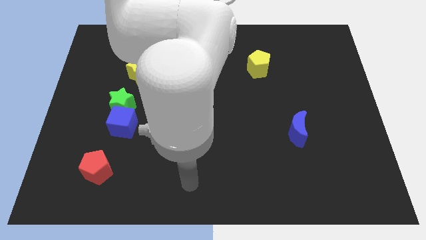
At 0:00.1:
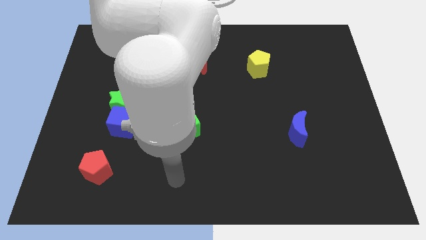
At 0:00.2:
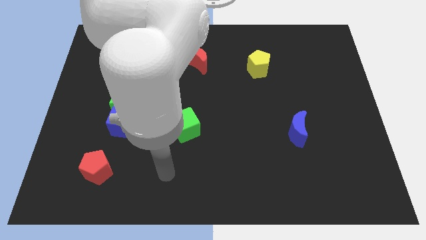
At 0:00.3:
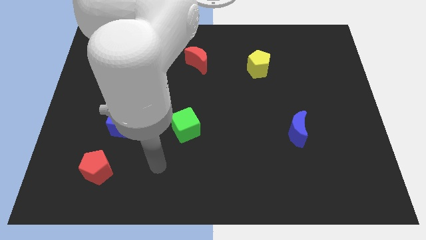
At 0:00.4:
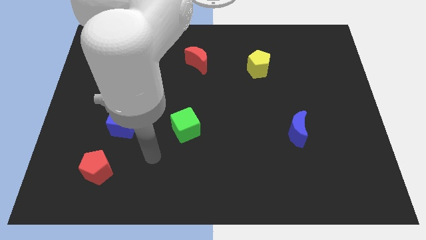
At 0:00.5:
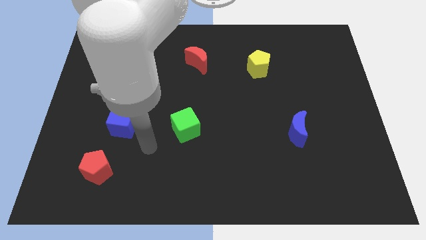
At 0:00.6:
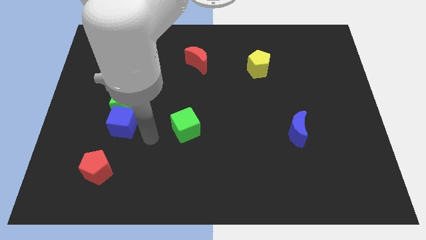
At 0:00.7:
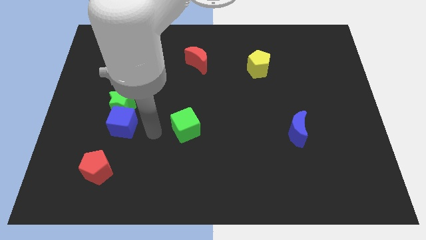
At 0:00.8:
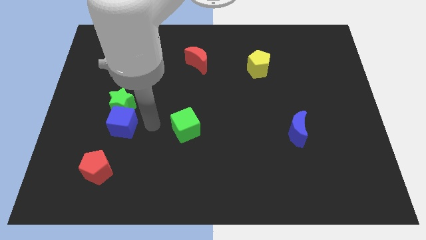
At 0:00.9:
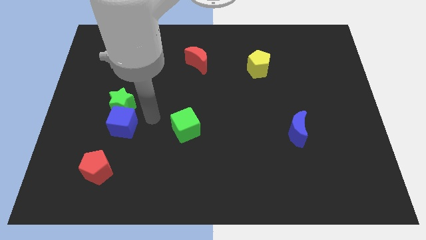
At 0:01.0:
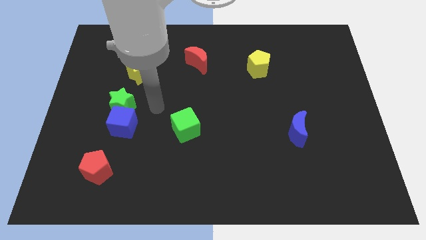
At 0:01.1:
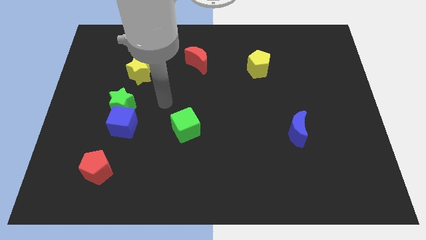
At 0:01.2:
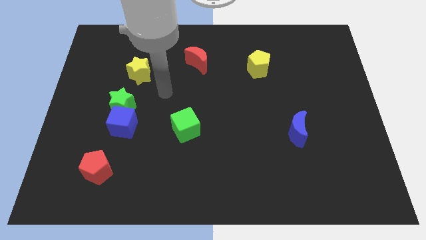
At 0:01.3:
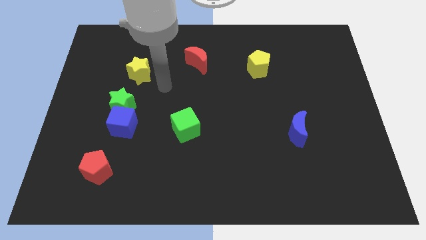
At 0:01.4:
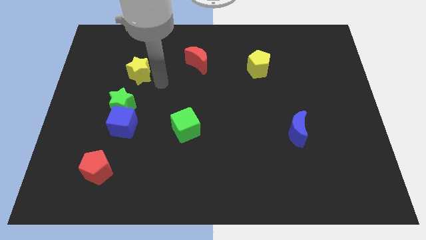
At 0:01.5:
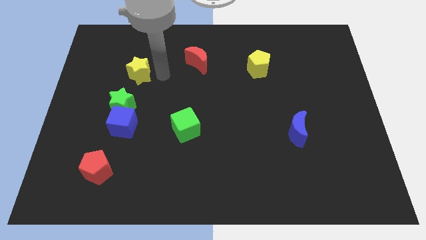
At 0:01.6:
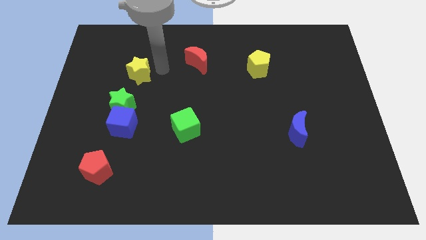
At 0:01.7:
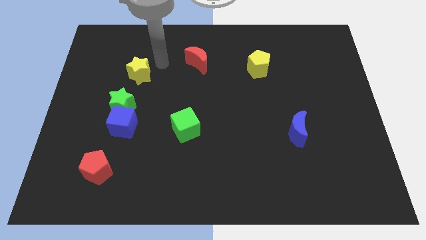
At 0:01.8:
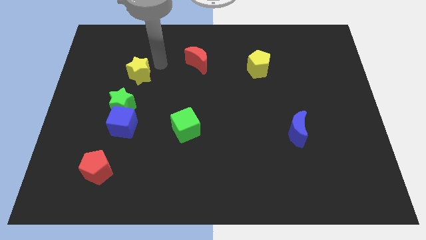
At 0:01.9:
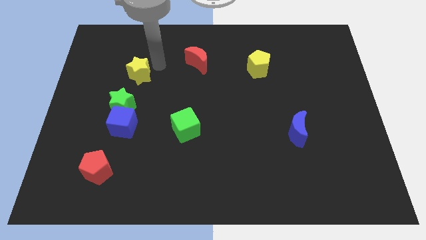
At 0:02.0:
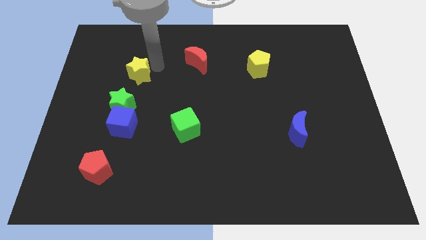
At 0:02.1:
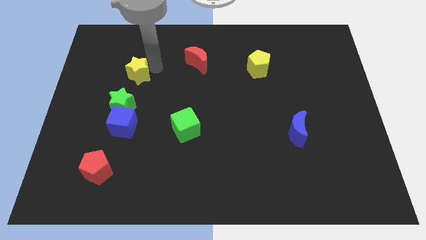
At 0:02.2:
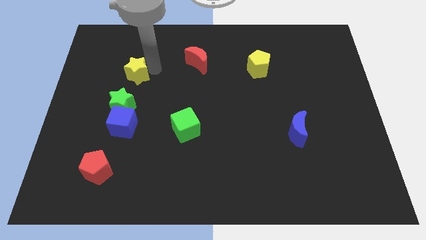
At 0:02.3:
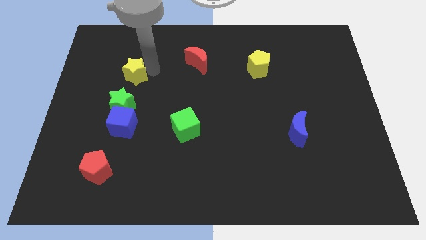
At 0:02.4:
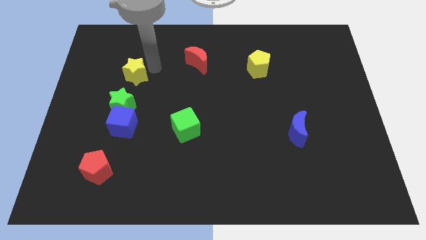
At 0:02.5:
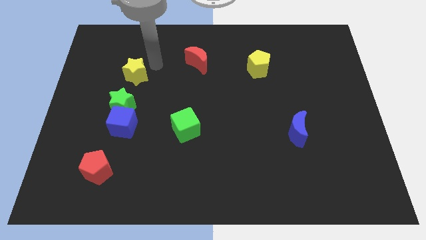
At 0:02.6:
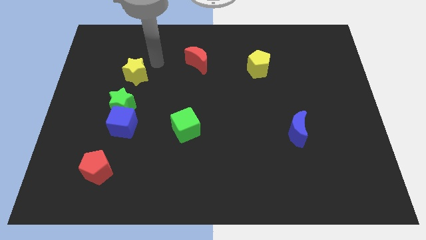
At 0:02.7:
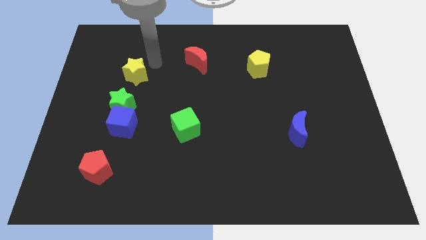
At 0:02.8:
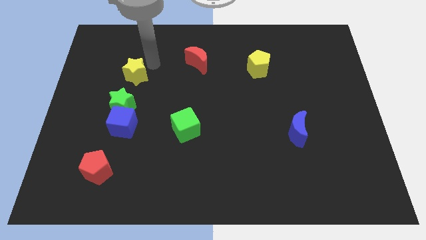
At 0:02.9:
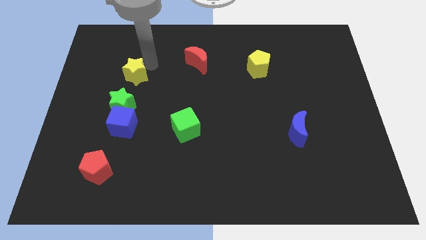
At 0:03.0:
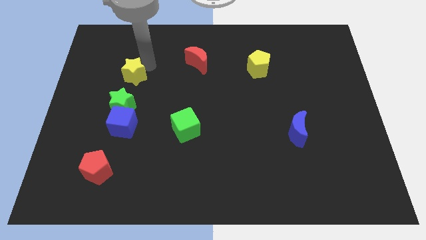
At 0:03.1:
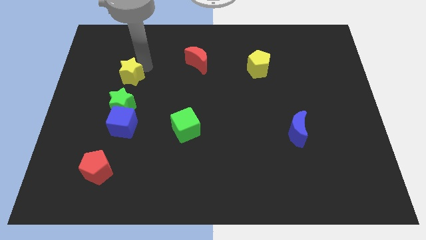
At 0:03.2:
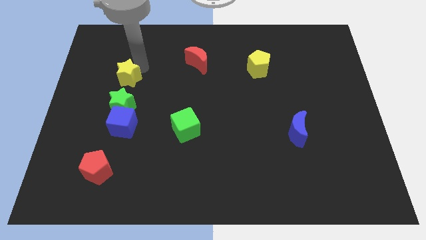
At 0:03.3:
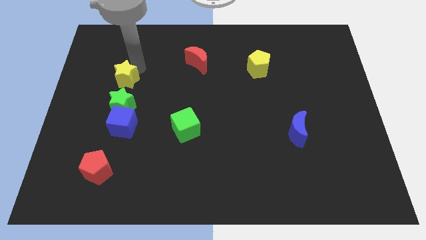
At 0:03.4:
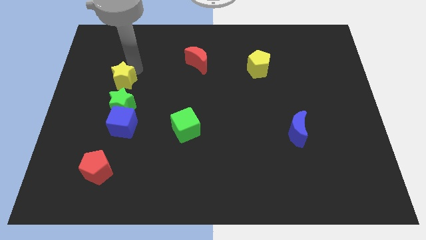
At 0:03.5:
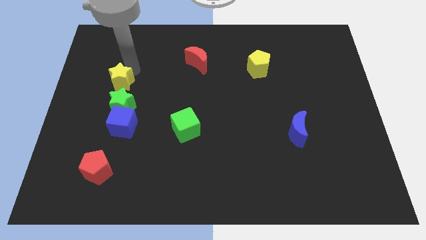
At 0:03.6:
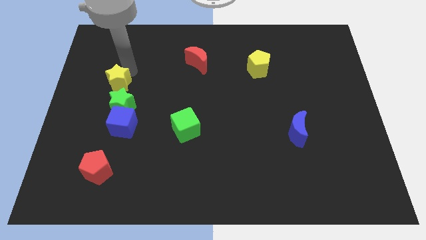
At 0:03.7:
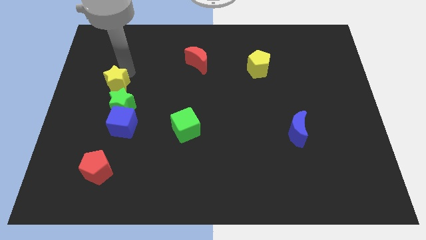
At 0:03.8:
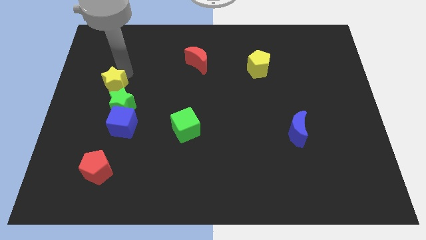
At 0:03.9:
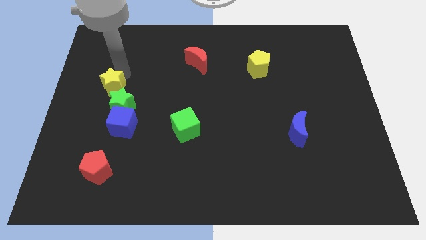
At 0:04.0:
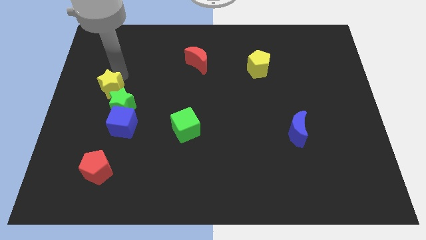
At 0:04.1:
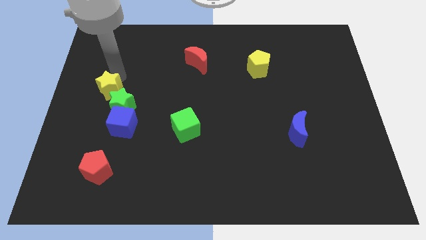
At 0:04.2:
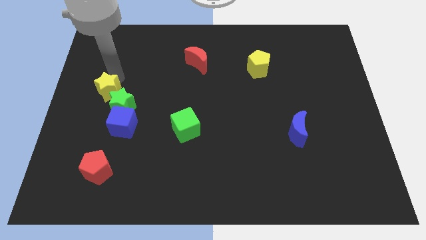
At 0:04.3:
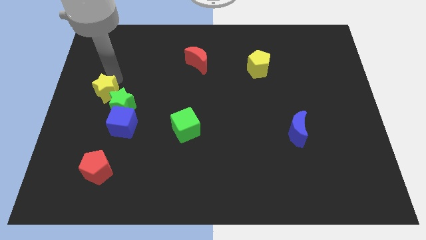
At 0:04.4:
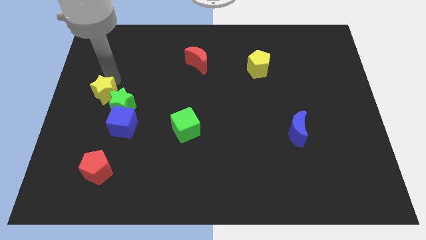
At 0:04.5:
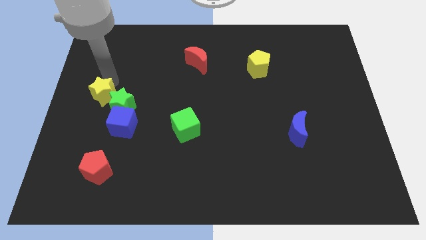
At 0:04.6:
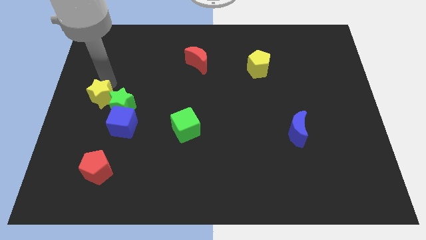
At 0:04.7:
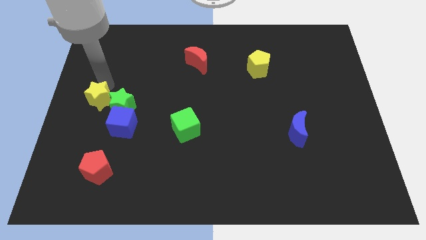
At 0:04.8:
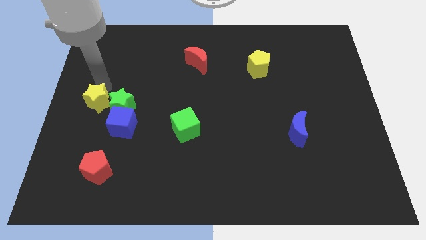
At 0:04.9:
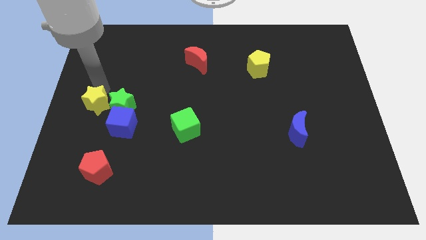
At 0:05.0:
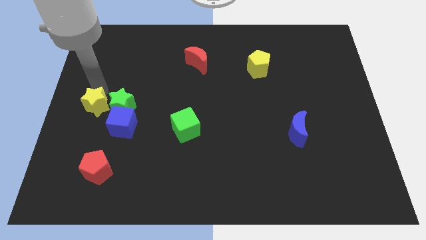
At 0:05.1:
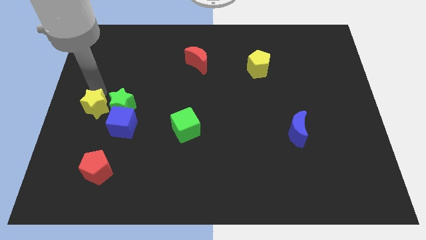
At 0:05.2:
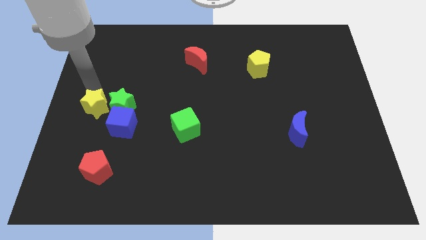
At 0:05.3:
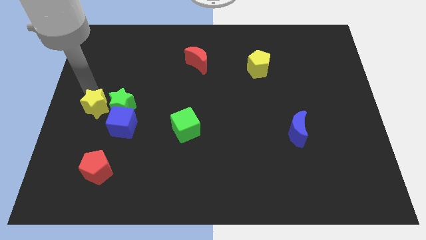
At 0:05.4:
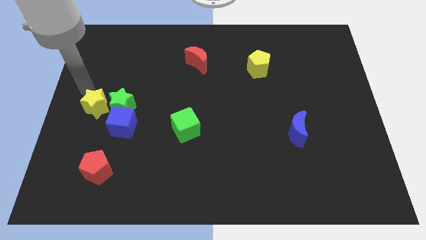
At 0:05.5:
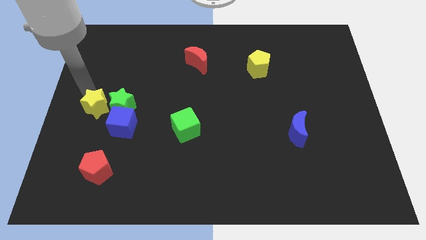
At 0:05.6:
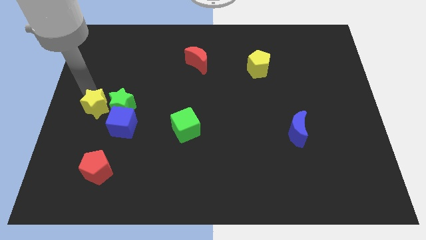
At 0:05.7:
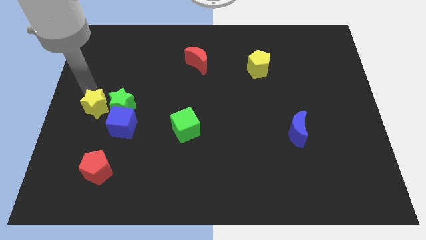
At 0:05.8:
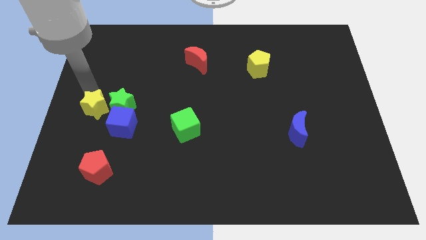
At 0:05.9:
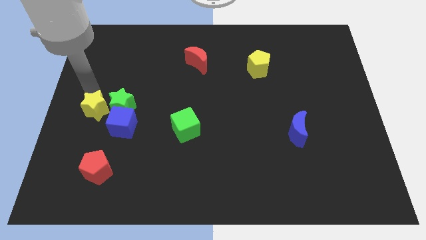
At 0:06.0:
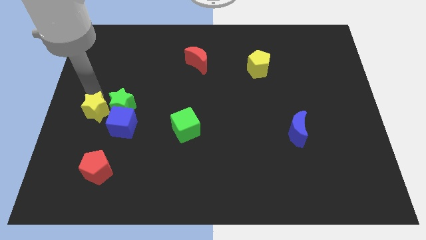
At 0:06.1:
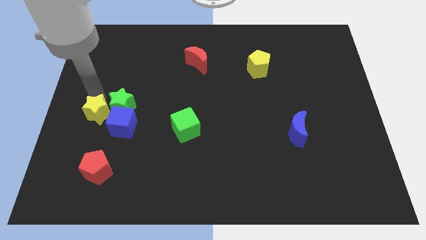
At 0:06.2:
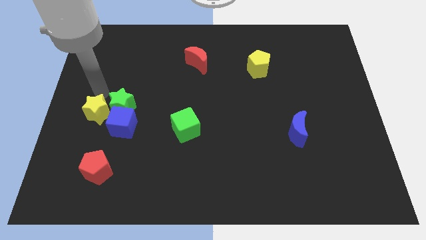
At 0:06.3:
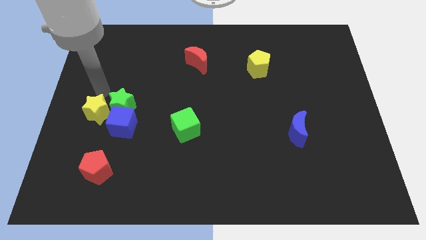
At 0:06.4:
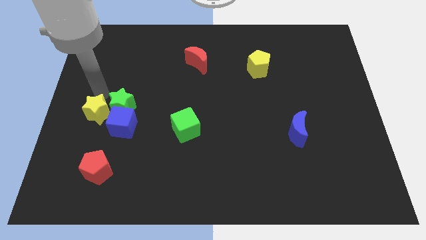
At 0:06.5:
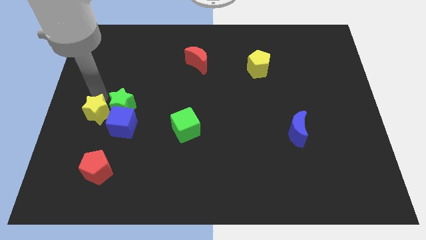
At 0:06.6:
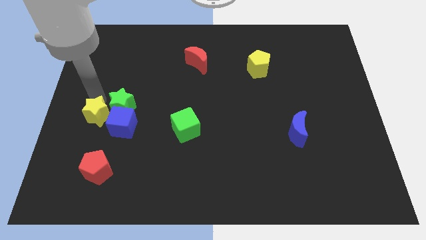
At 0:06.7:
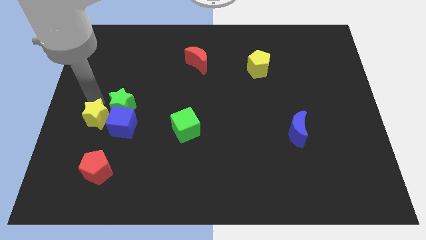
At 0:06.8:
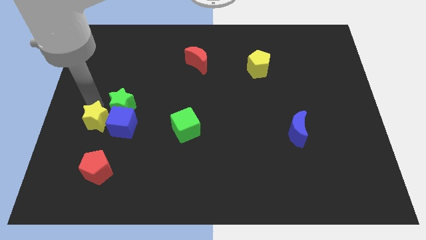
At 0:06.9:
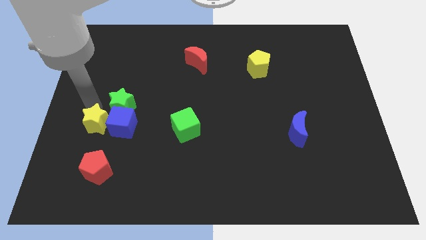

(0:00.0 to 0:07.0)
put the yellow star diagonally down and to the left of the blue cube

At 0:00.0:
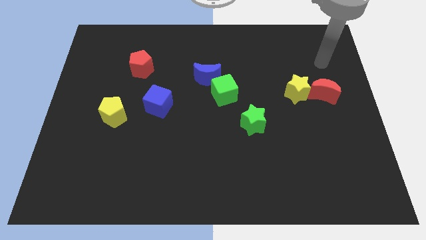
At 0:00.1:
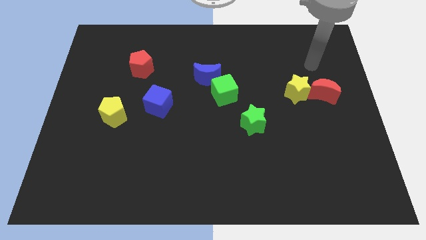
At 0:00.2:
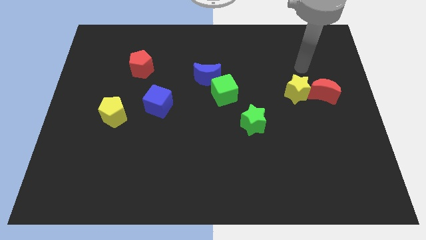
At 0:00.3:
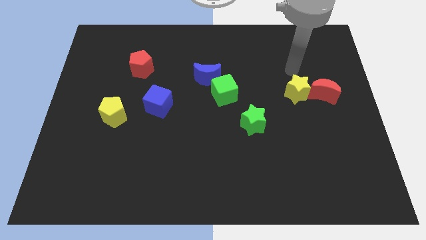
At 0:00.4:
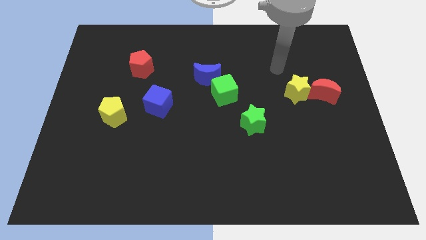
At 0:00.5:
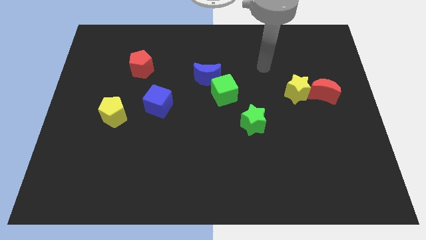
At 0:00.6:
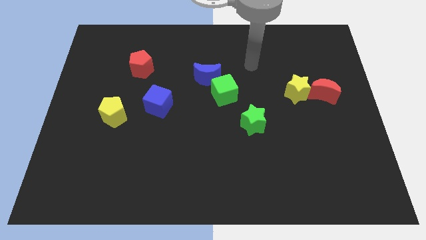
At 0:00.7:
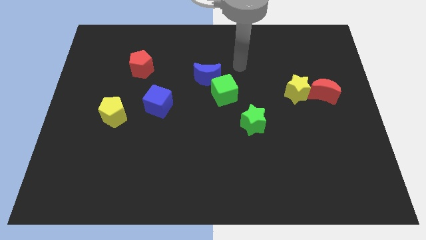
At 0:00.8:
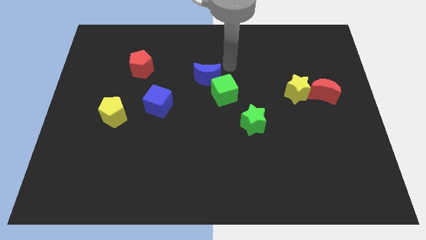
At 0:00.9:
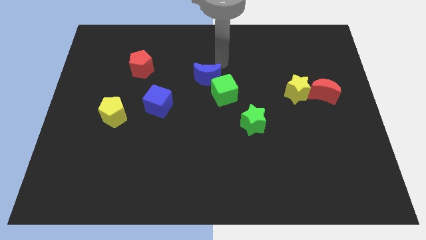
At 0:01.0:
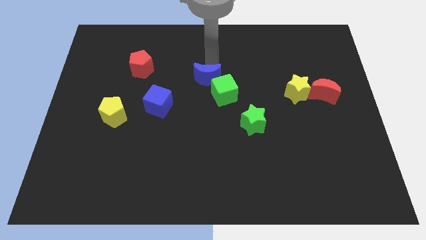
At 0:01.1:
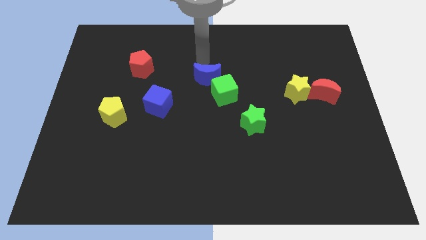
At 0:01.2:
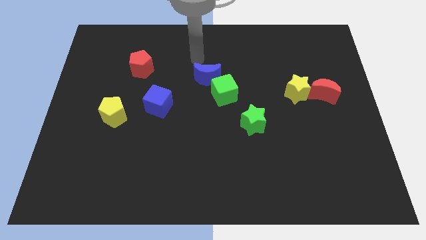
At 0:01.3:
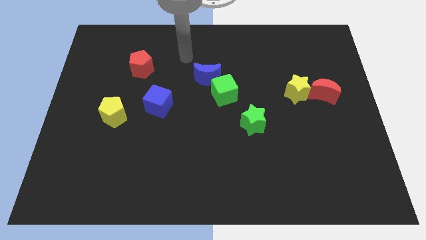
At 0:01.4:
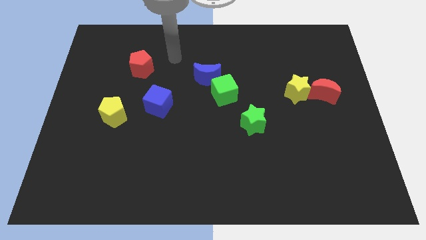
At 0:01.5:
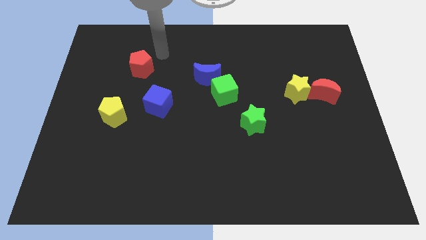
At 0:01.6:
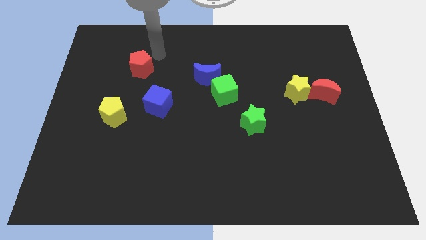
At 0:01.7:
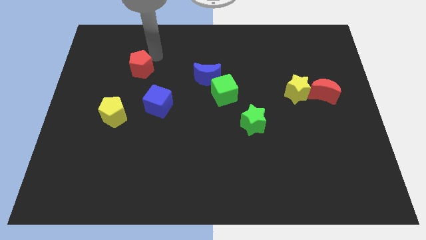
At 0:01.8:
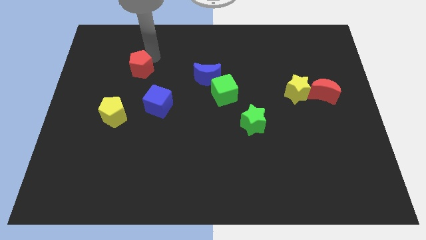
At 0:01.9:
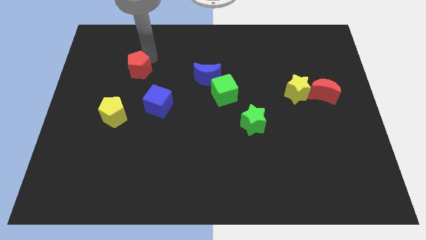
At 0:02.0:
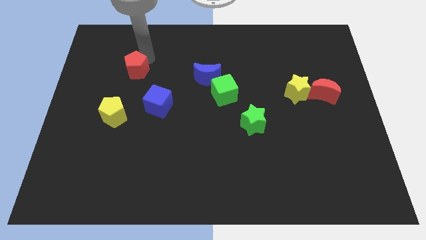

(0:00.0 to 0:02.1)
move the red pentagon to the top of the yellow pentagon
